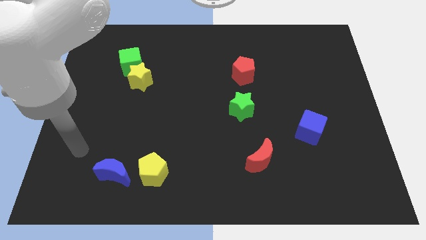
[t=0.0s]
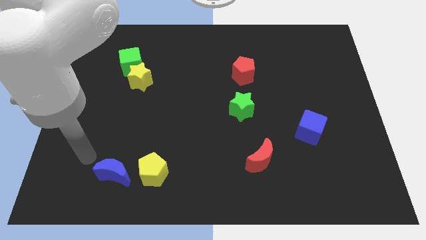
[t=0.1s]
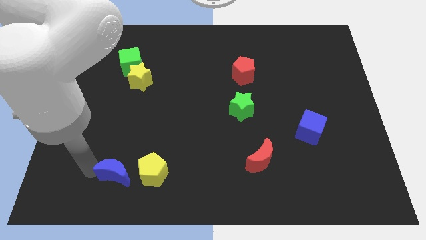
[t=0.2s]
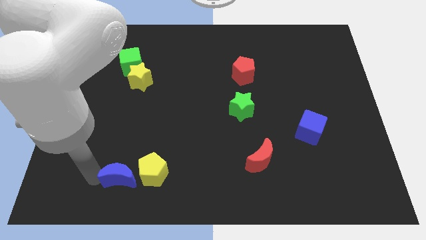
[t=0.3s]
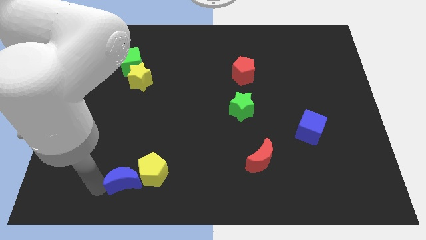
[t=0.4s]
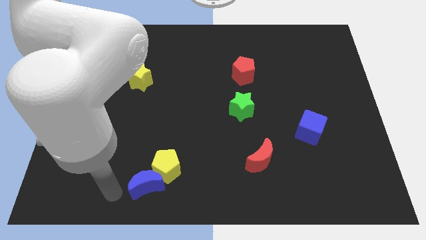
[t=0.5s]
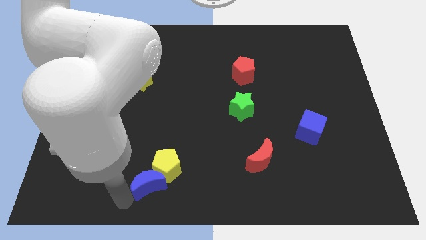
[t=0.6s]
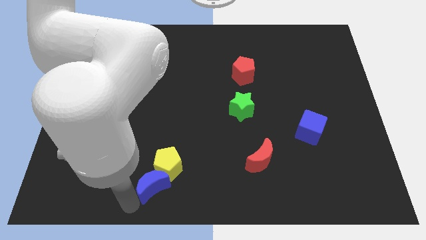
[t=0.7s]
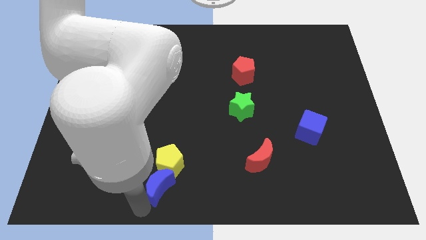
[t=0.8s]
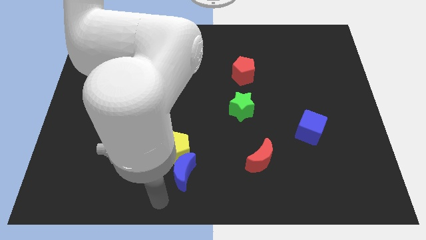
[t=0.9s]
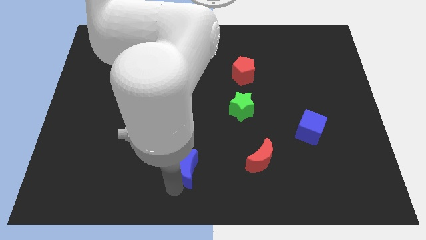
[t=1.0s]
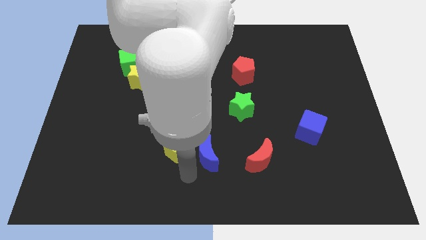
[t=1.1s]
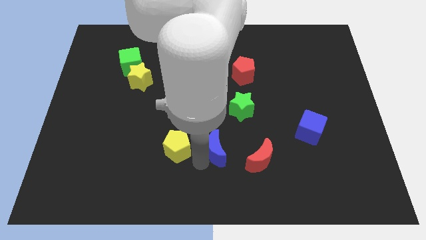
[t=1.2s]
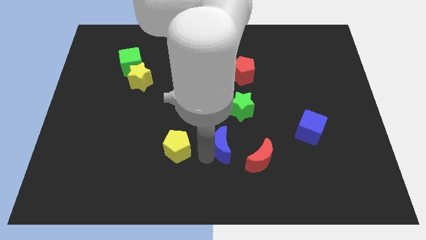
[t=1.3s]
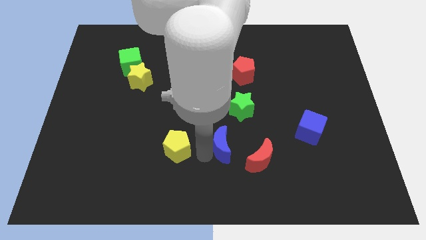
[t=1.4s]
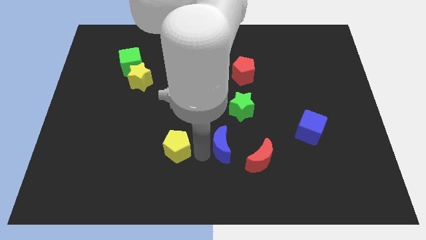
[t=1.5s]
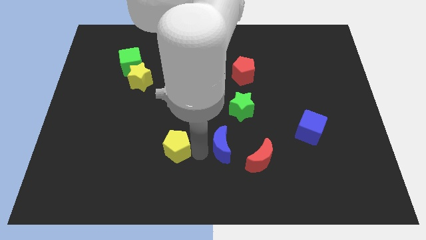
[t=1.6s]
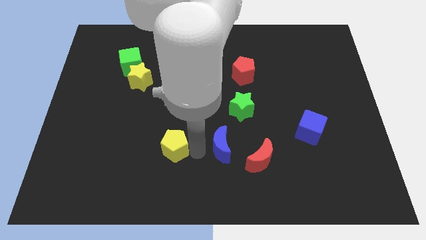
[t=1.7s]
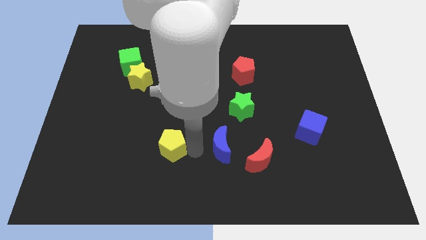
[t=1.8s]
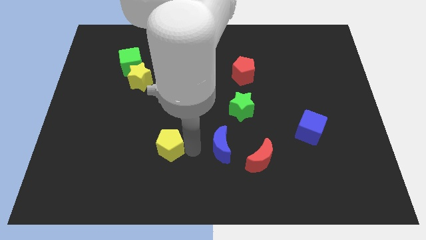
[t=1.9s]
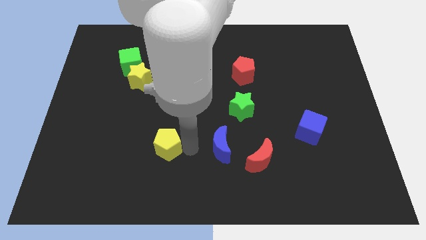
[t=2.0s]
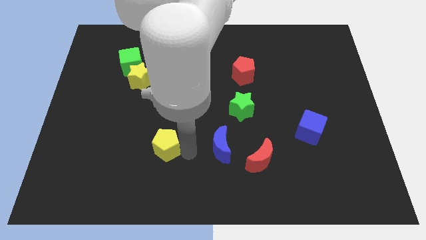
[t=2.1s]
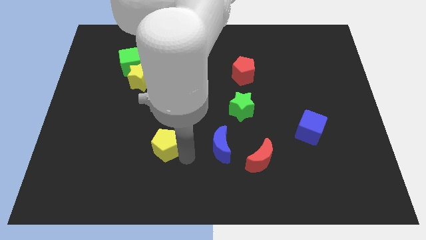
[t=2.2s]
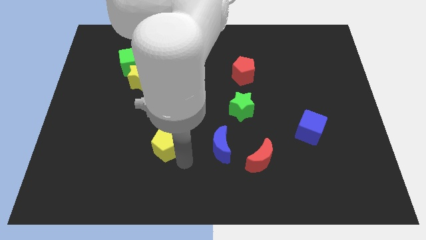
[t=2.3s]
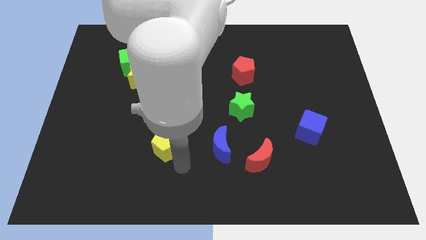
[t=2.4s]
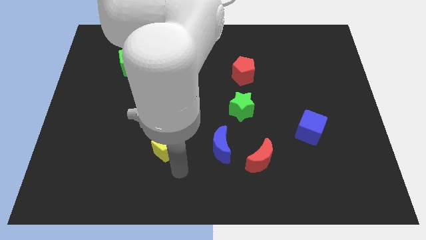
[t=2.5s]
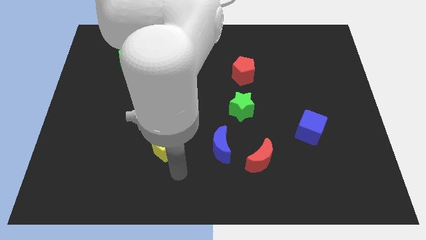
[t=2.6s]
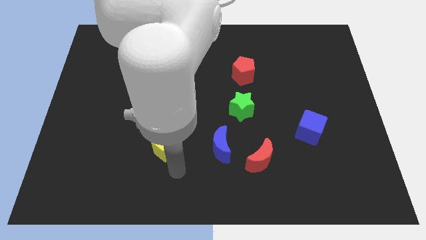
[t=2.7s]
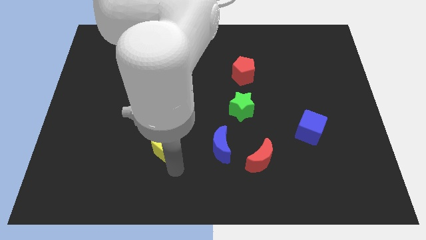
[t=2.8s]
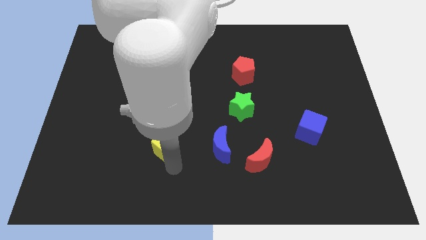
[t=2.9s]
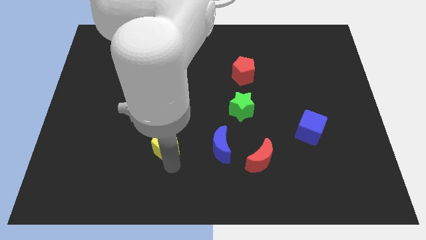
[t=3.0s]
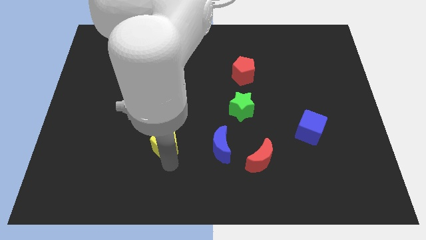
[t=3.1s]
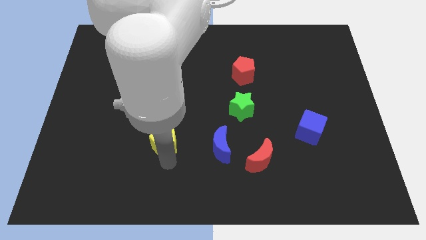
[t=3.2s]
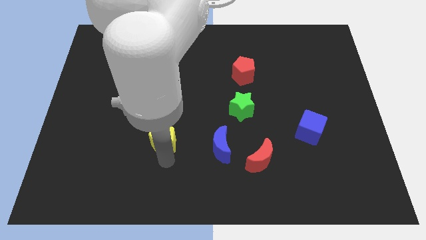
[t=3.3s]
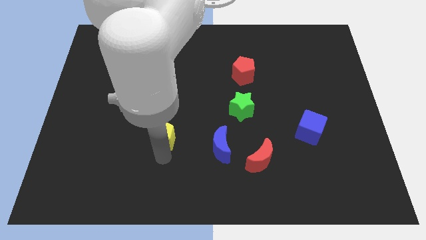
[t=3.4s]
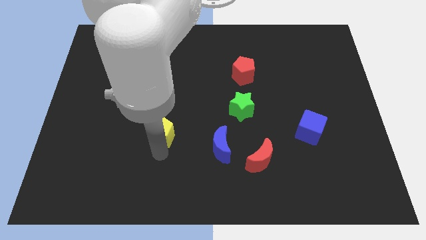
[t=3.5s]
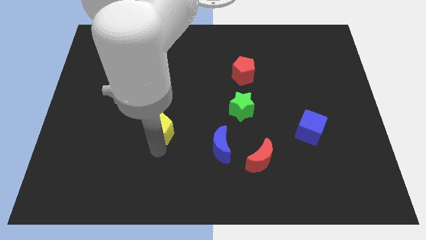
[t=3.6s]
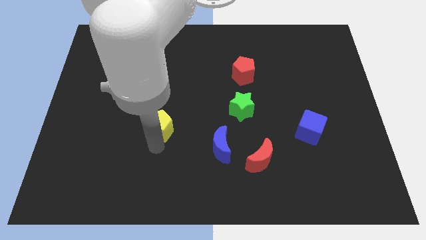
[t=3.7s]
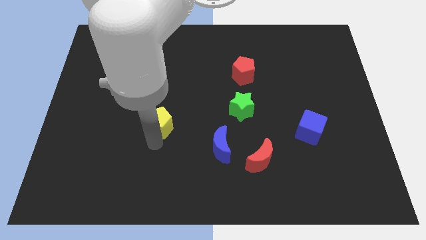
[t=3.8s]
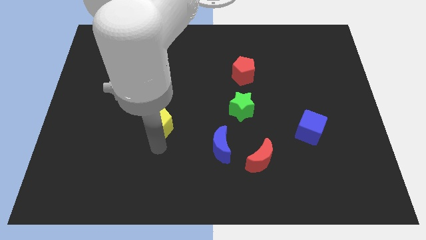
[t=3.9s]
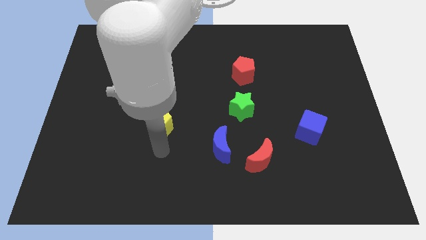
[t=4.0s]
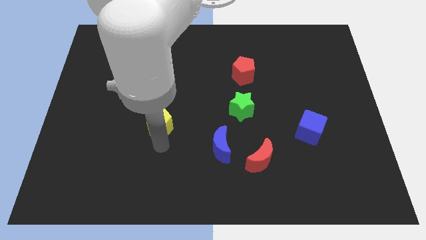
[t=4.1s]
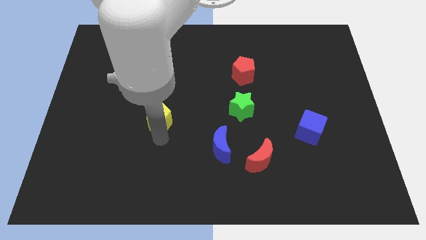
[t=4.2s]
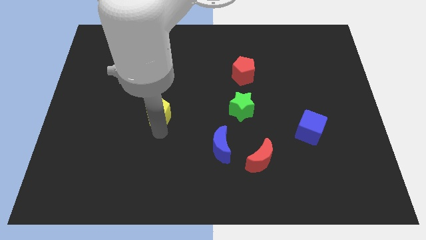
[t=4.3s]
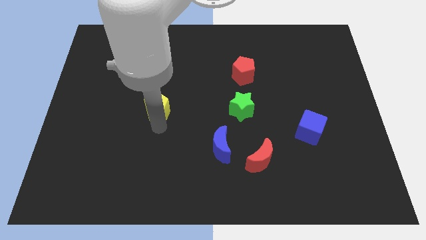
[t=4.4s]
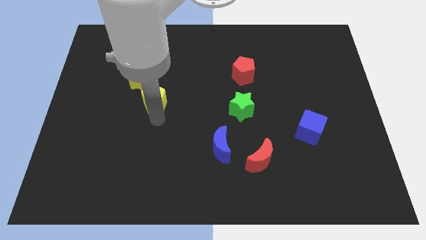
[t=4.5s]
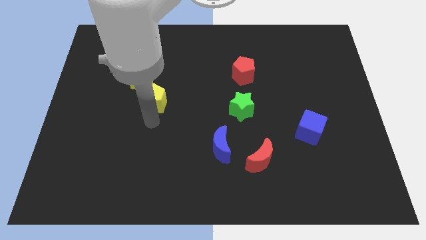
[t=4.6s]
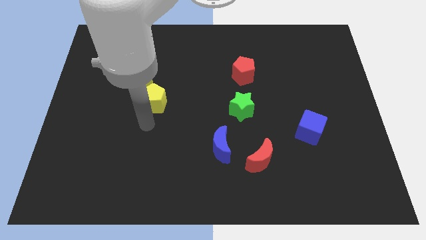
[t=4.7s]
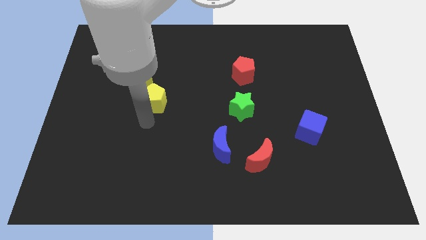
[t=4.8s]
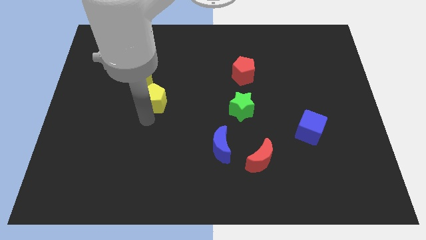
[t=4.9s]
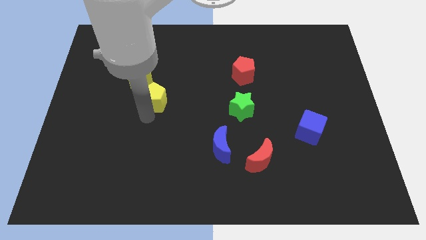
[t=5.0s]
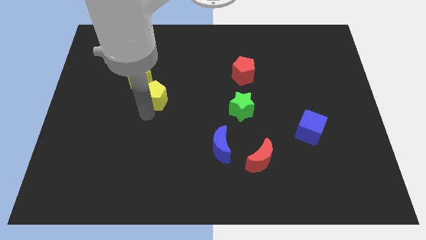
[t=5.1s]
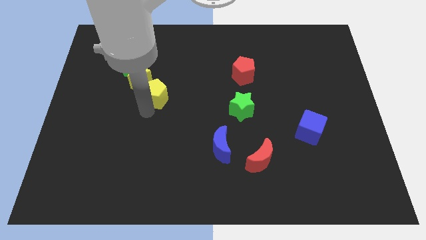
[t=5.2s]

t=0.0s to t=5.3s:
slide the yellow pentagon up

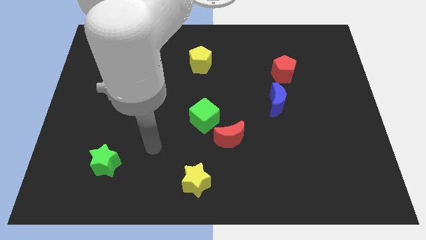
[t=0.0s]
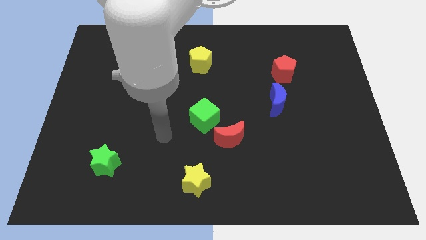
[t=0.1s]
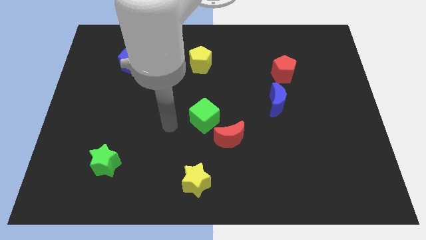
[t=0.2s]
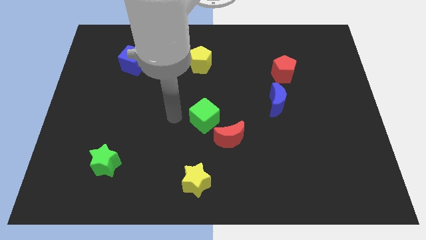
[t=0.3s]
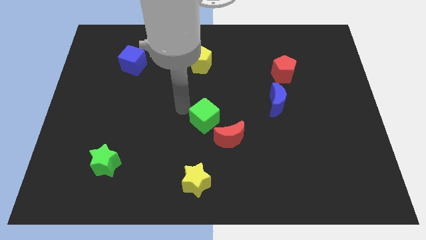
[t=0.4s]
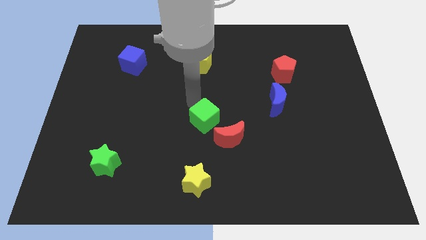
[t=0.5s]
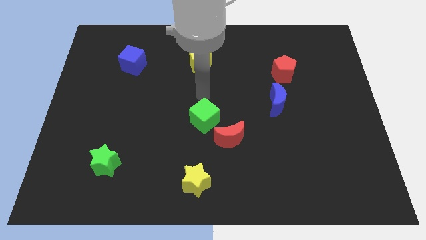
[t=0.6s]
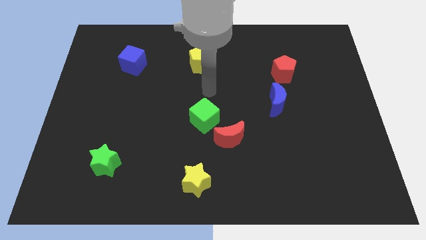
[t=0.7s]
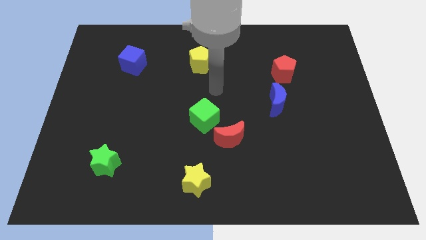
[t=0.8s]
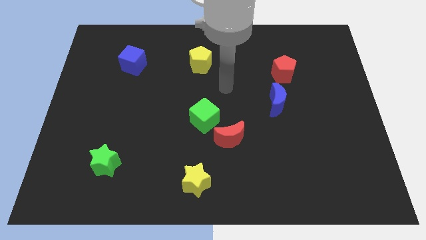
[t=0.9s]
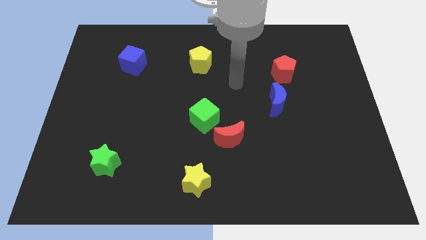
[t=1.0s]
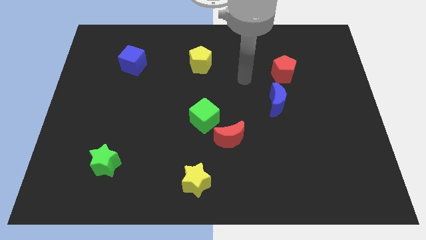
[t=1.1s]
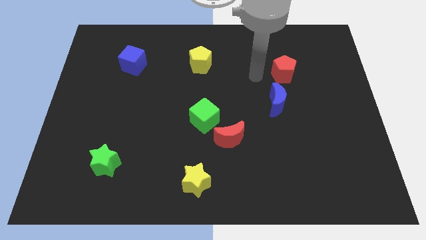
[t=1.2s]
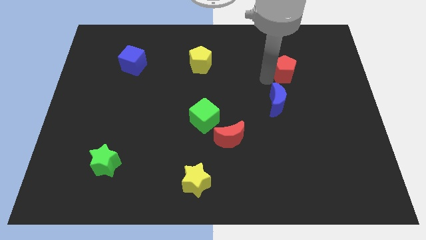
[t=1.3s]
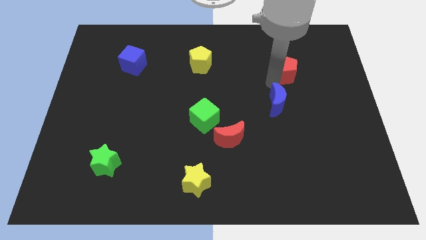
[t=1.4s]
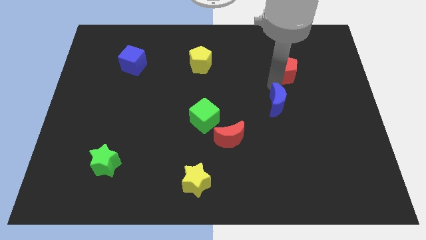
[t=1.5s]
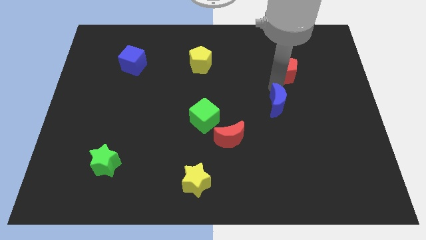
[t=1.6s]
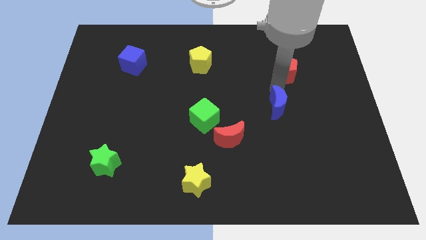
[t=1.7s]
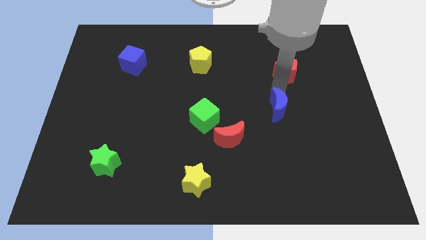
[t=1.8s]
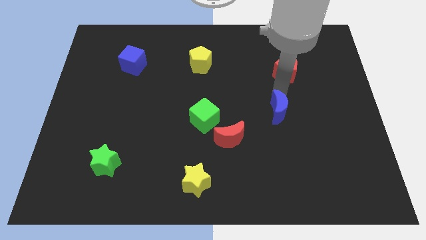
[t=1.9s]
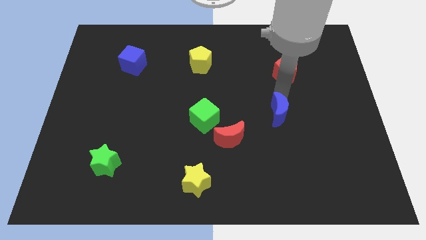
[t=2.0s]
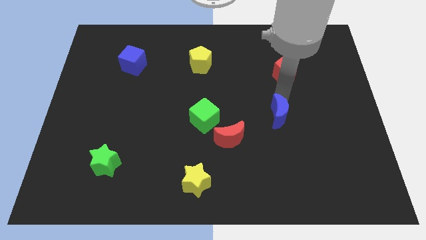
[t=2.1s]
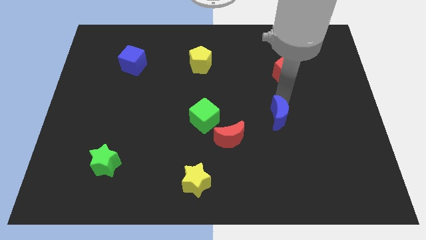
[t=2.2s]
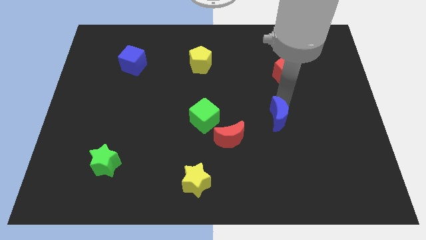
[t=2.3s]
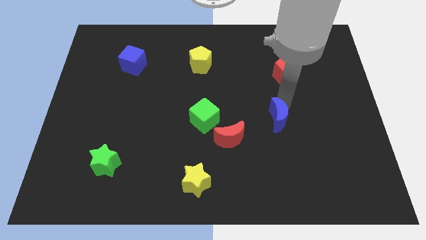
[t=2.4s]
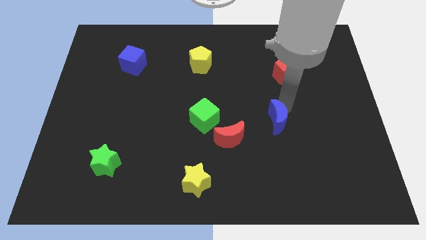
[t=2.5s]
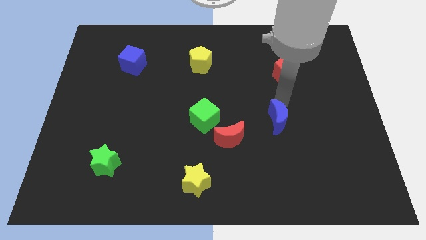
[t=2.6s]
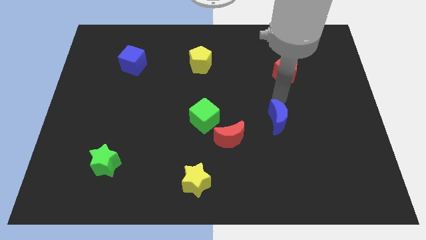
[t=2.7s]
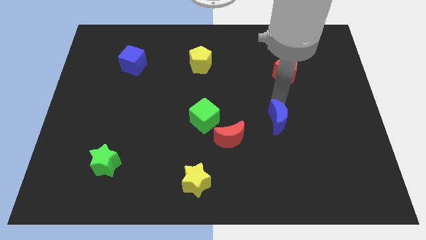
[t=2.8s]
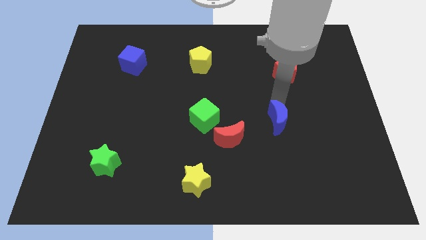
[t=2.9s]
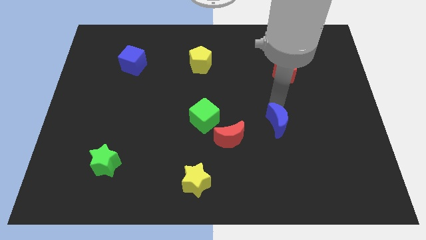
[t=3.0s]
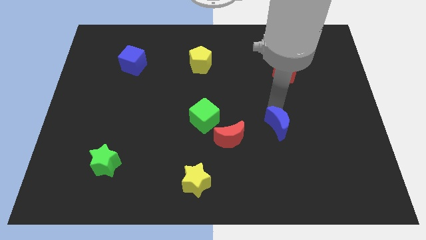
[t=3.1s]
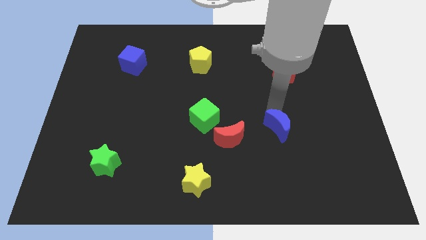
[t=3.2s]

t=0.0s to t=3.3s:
slightly slide the blue moon downwards
